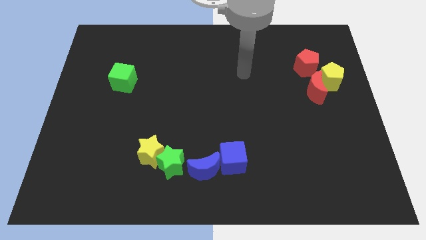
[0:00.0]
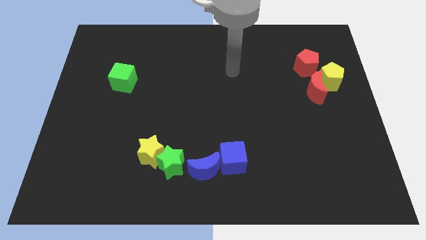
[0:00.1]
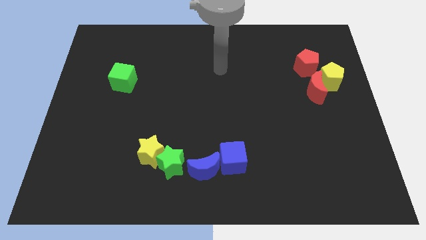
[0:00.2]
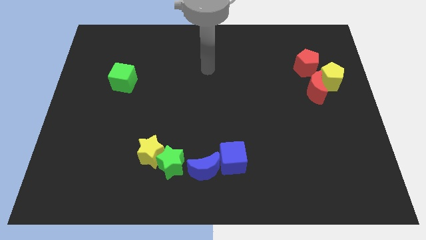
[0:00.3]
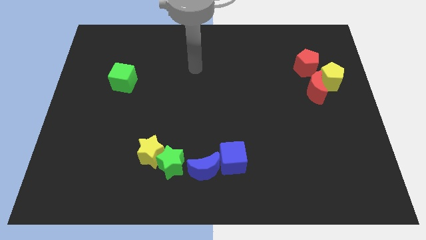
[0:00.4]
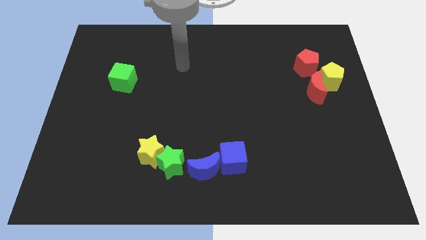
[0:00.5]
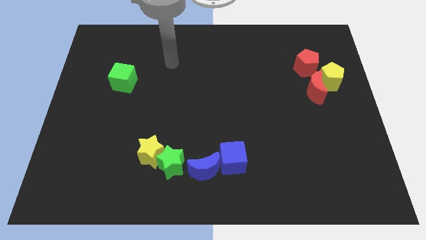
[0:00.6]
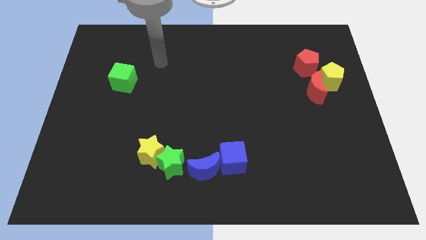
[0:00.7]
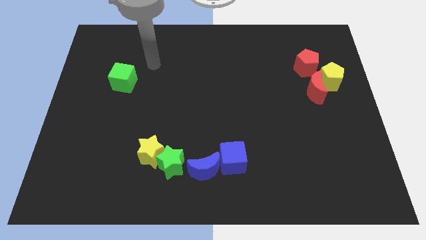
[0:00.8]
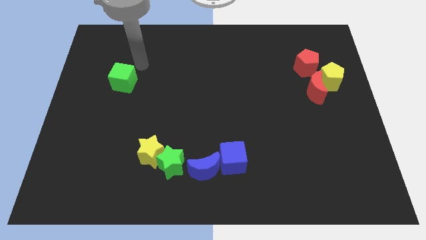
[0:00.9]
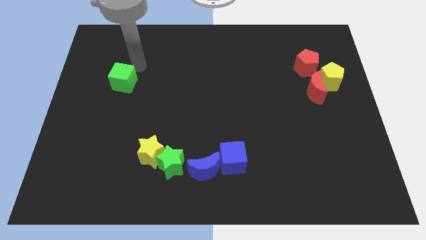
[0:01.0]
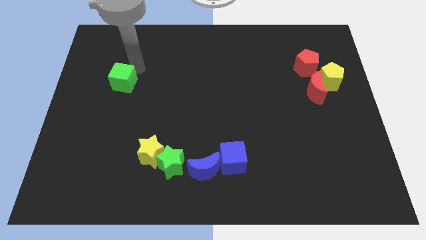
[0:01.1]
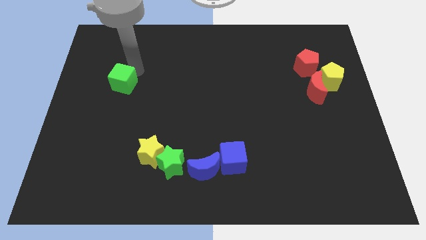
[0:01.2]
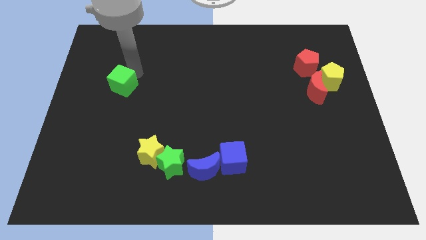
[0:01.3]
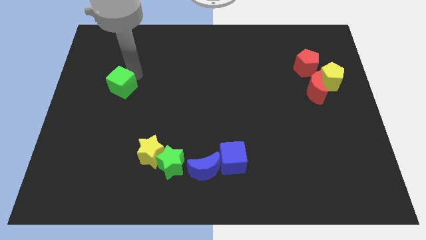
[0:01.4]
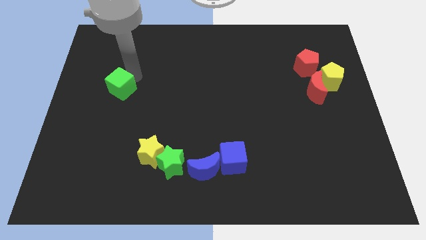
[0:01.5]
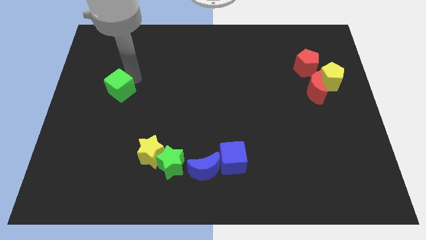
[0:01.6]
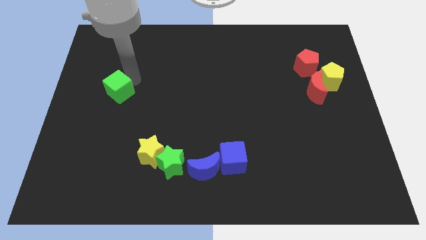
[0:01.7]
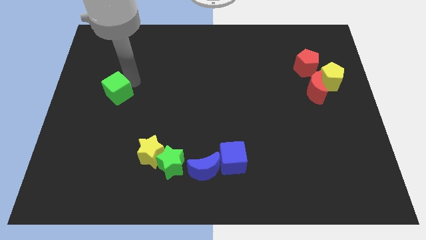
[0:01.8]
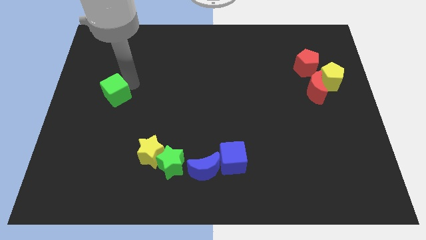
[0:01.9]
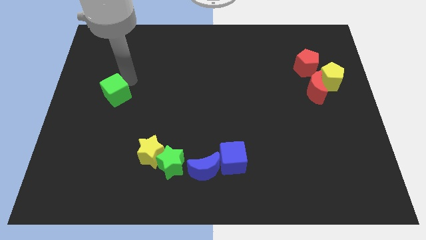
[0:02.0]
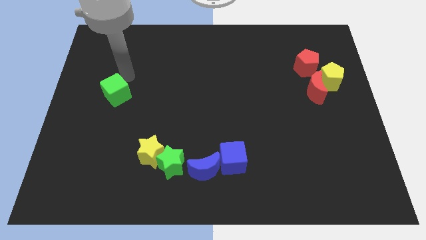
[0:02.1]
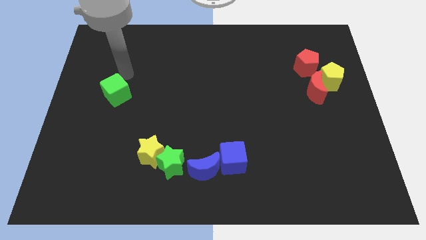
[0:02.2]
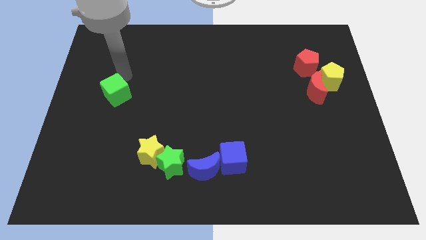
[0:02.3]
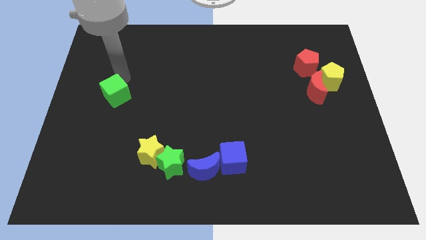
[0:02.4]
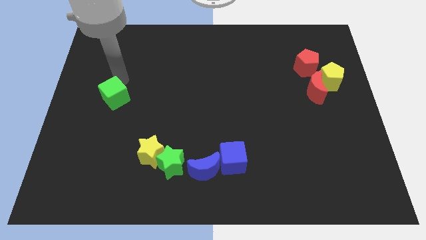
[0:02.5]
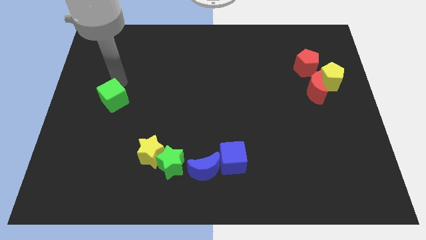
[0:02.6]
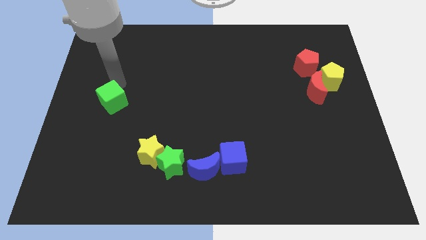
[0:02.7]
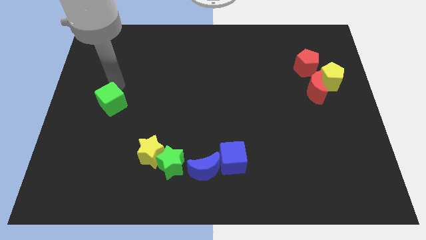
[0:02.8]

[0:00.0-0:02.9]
push the green cube downwards slightly

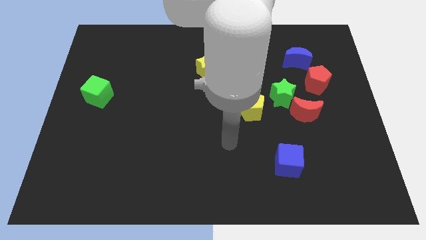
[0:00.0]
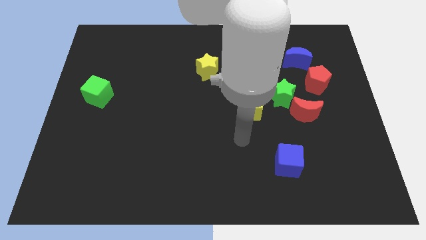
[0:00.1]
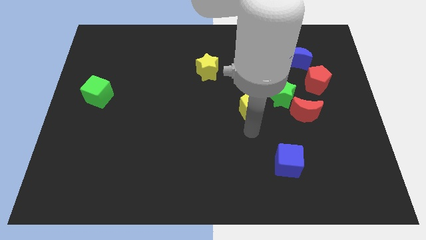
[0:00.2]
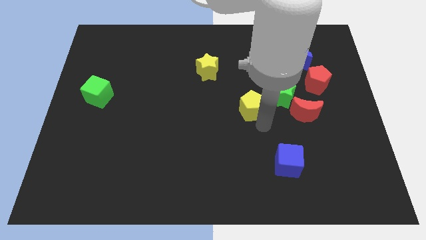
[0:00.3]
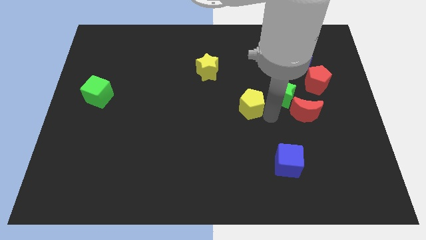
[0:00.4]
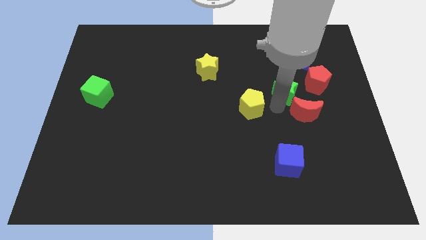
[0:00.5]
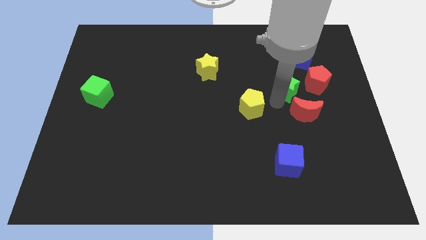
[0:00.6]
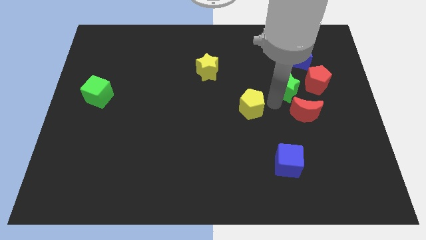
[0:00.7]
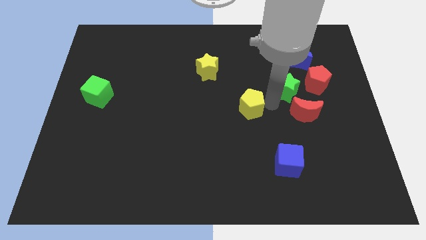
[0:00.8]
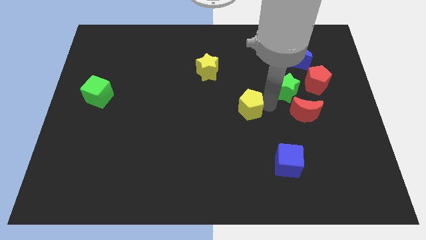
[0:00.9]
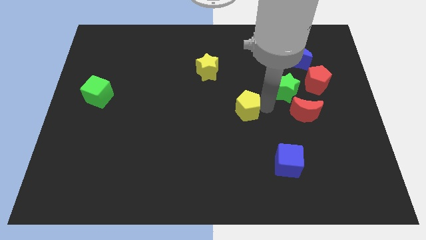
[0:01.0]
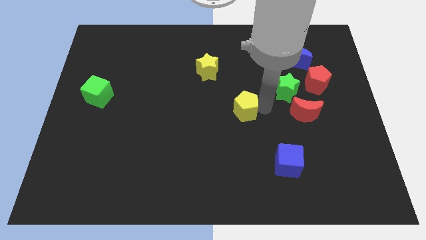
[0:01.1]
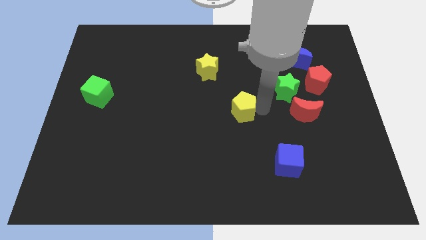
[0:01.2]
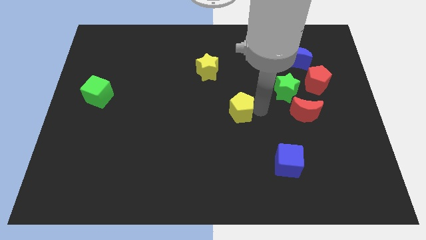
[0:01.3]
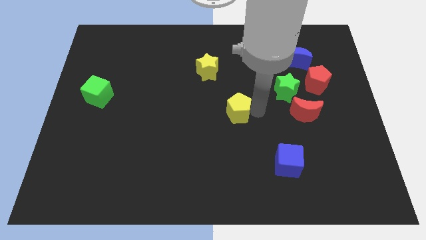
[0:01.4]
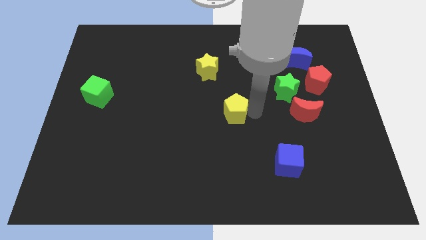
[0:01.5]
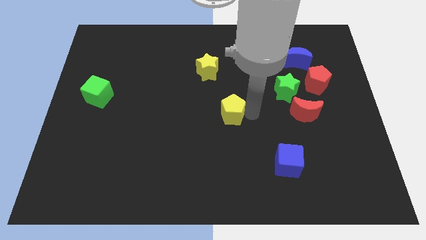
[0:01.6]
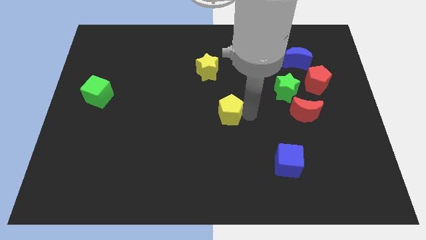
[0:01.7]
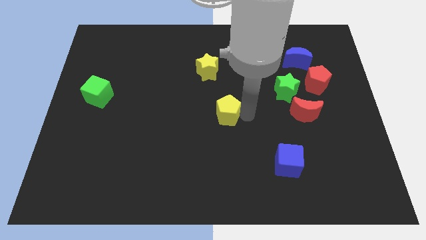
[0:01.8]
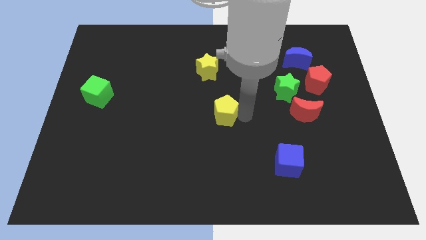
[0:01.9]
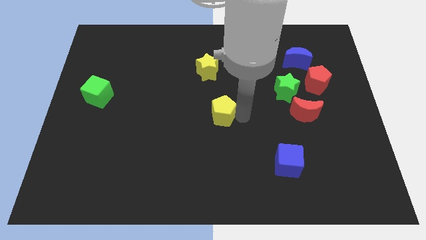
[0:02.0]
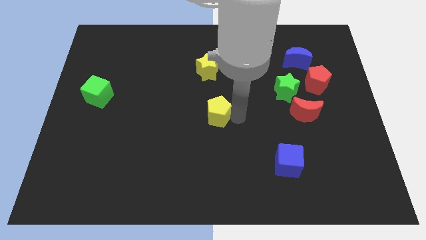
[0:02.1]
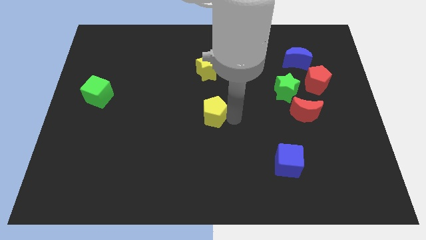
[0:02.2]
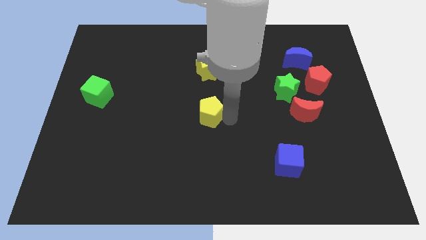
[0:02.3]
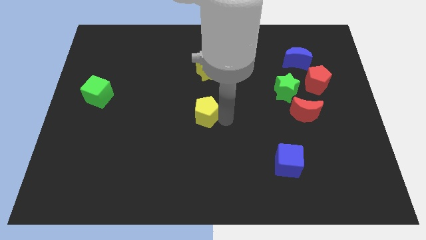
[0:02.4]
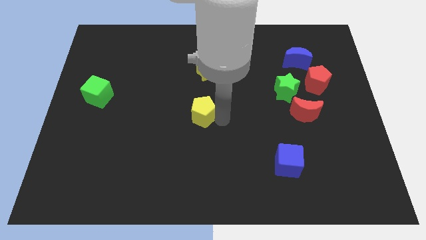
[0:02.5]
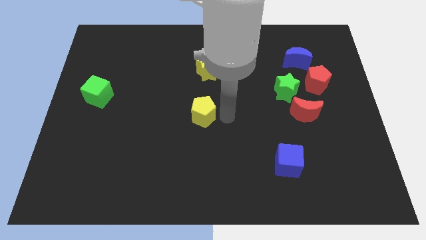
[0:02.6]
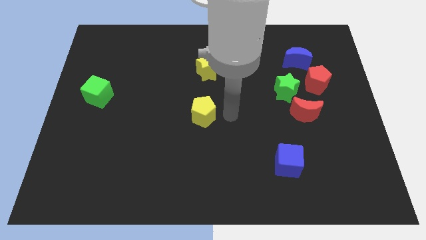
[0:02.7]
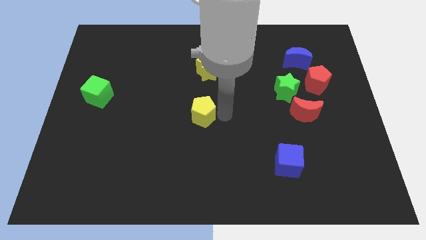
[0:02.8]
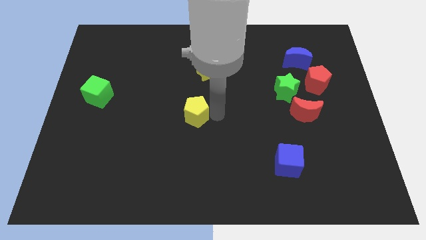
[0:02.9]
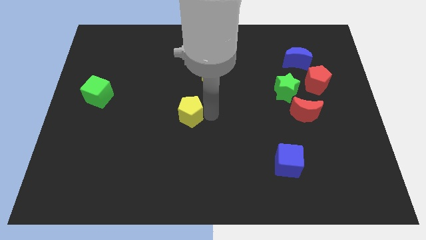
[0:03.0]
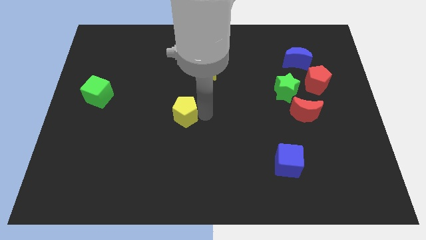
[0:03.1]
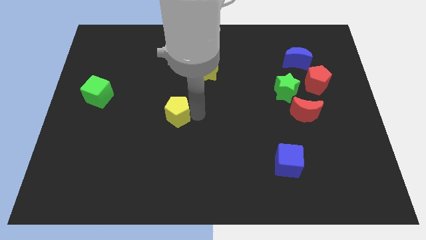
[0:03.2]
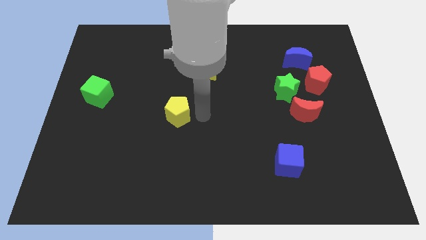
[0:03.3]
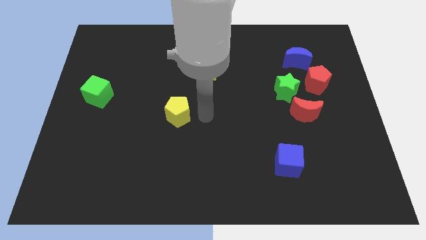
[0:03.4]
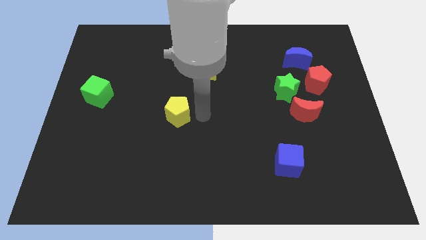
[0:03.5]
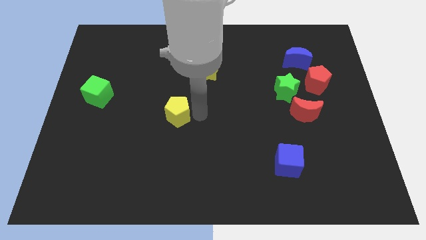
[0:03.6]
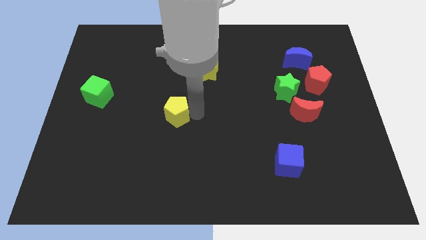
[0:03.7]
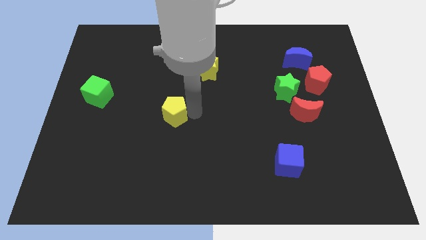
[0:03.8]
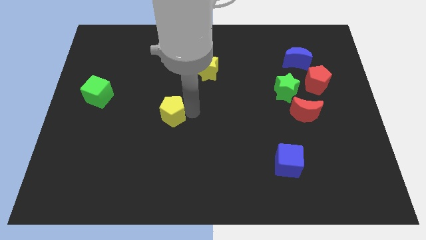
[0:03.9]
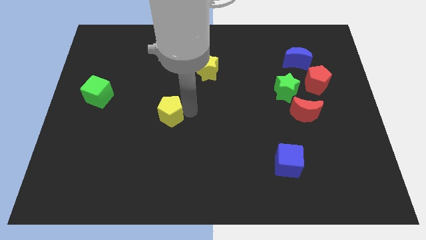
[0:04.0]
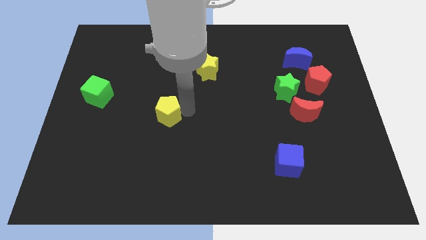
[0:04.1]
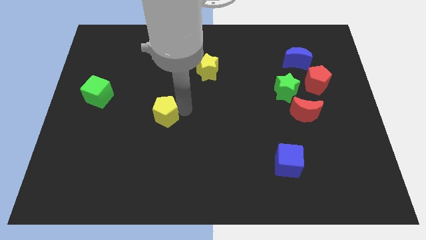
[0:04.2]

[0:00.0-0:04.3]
move the yellow pentagon to the left

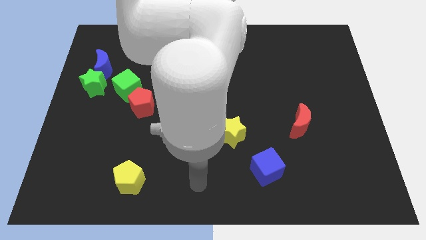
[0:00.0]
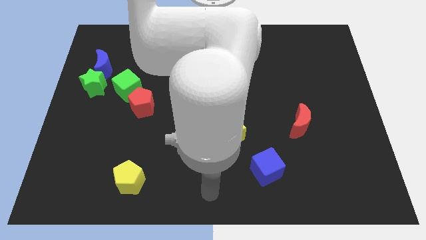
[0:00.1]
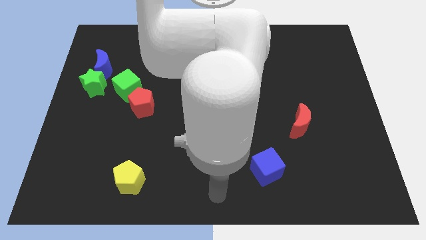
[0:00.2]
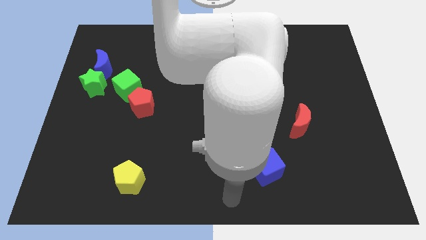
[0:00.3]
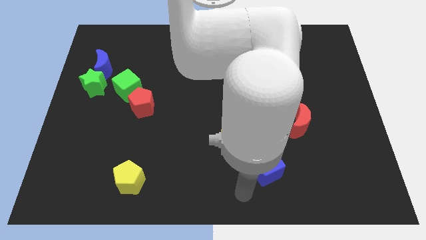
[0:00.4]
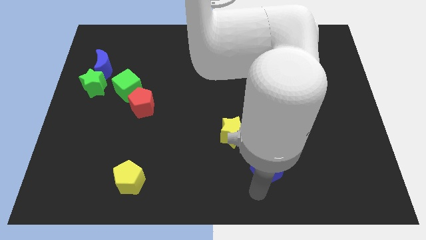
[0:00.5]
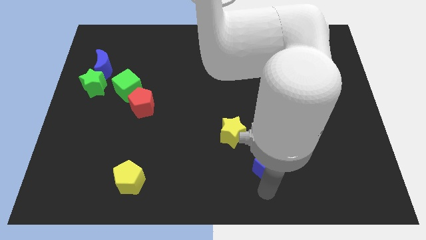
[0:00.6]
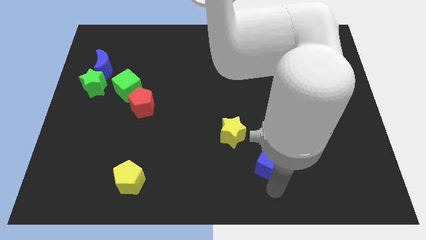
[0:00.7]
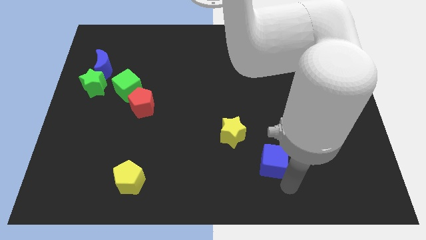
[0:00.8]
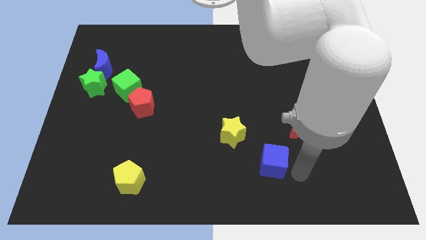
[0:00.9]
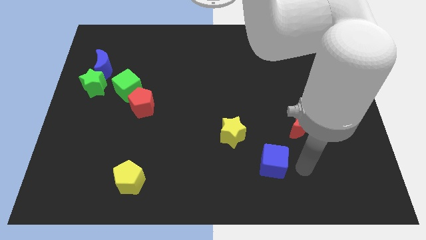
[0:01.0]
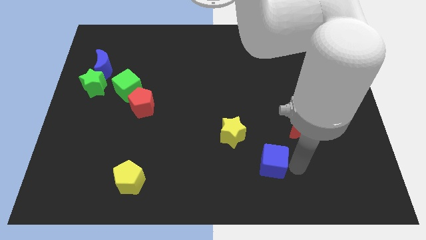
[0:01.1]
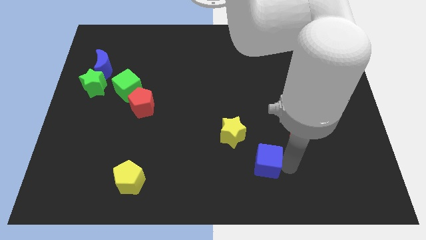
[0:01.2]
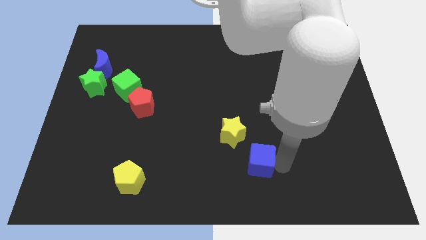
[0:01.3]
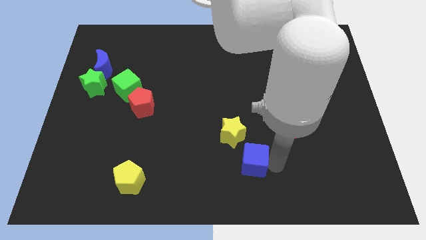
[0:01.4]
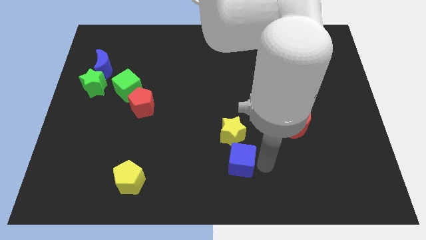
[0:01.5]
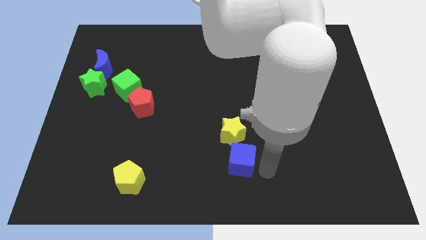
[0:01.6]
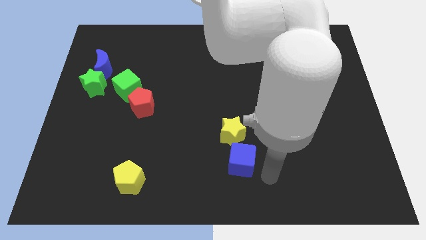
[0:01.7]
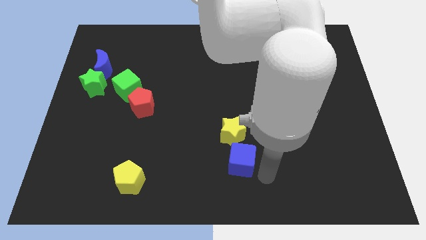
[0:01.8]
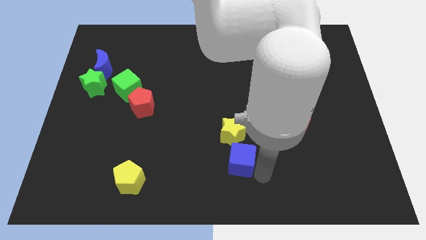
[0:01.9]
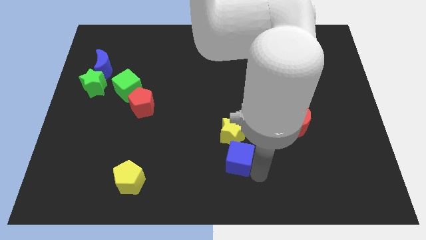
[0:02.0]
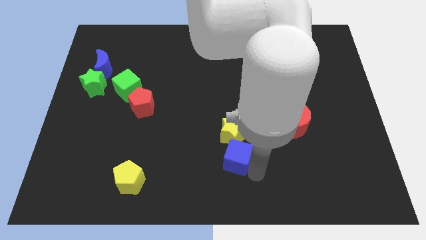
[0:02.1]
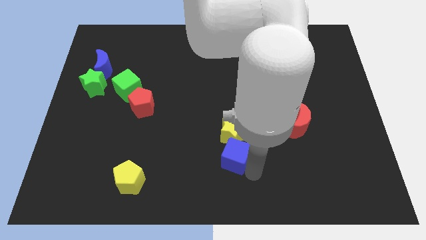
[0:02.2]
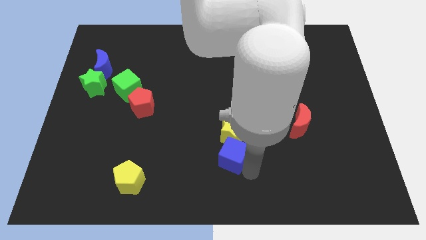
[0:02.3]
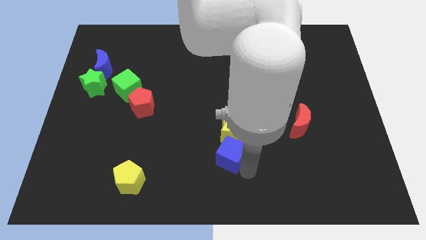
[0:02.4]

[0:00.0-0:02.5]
slightly slide the blue cube up and then to the left
